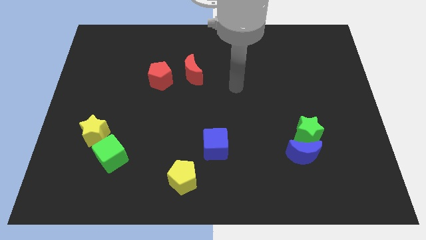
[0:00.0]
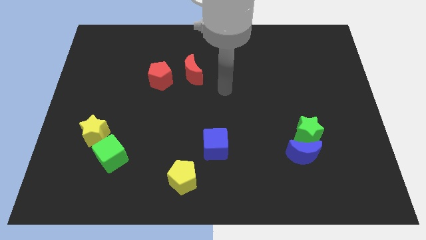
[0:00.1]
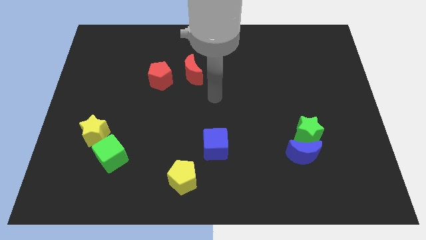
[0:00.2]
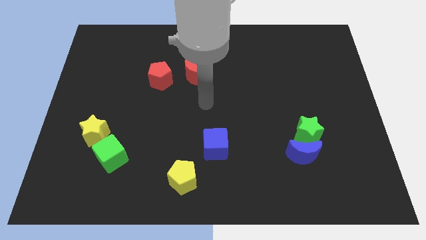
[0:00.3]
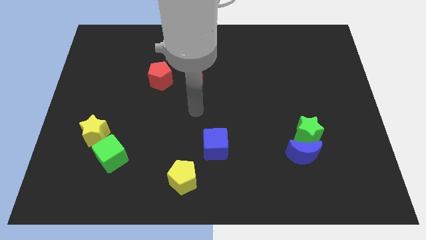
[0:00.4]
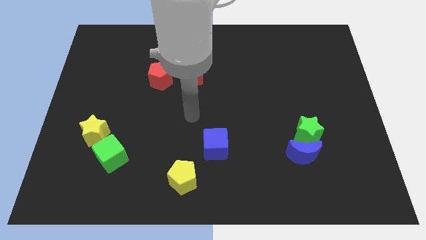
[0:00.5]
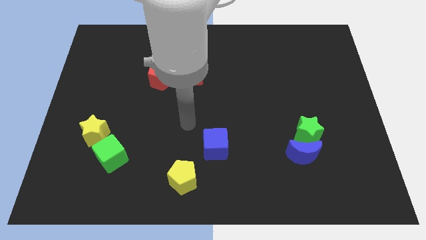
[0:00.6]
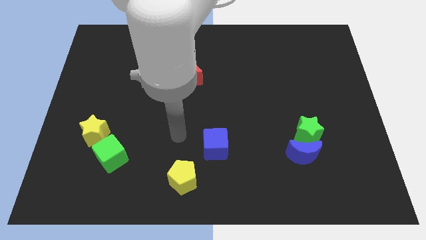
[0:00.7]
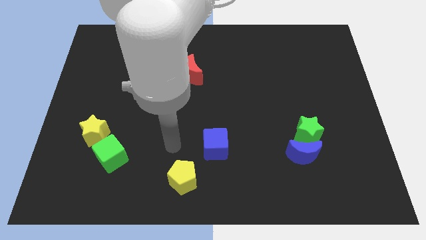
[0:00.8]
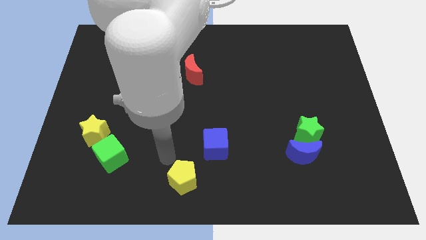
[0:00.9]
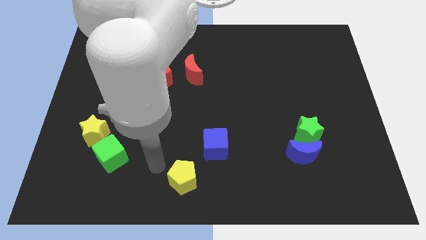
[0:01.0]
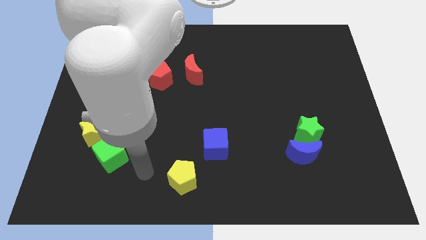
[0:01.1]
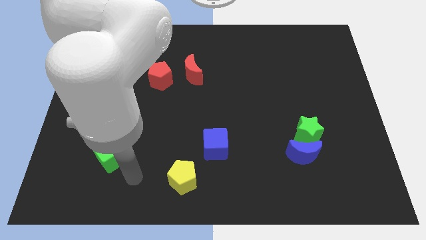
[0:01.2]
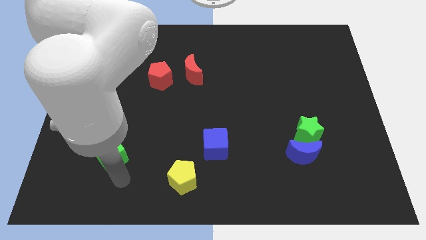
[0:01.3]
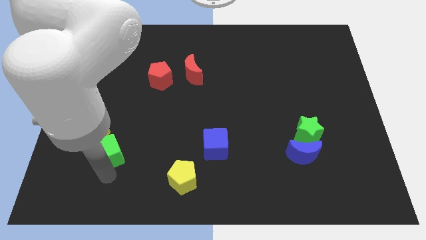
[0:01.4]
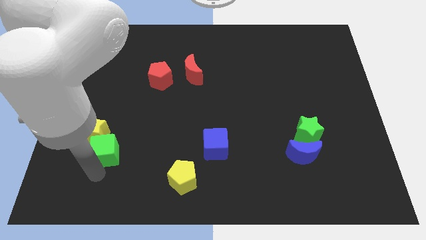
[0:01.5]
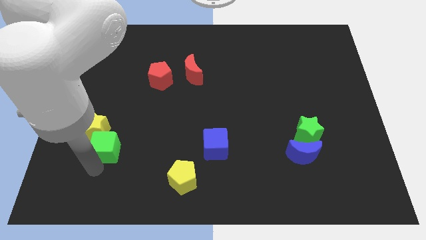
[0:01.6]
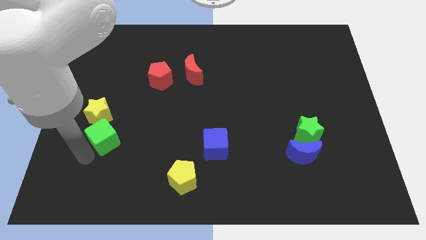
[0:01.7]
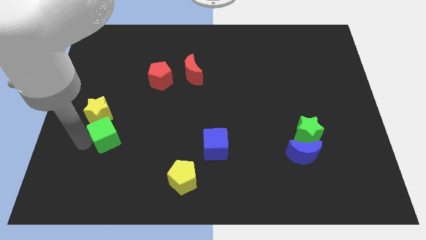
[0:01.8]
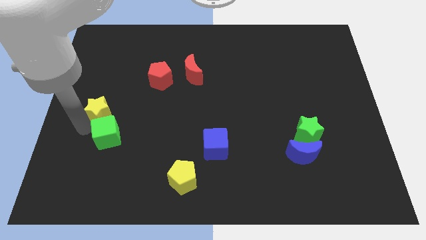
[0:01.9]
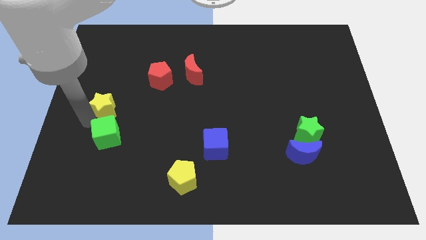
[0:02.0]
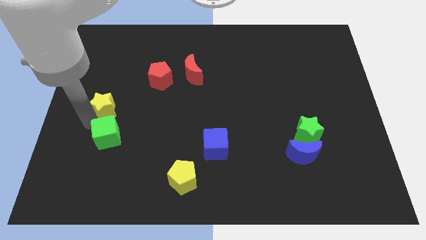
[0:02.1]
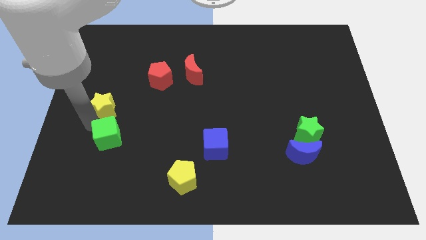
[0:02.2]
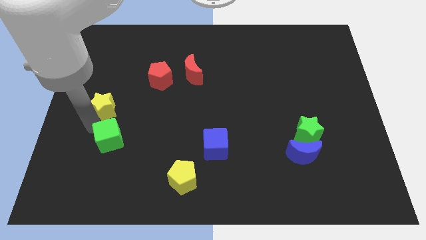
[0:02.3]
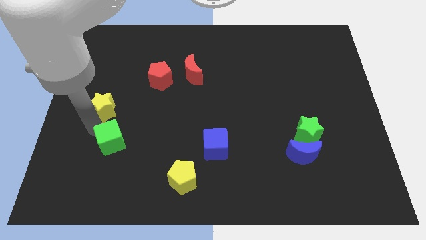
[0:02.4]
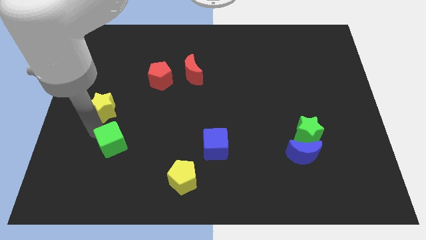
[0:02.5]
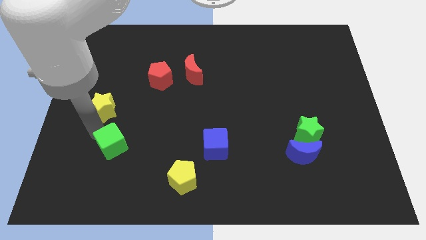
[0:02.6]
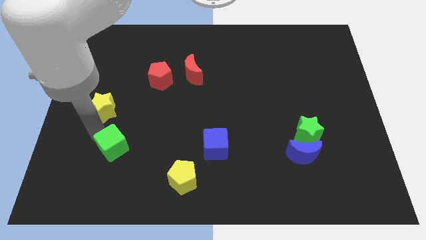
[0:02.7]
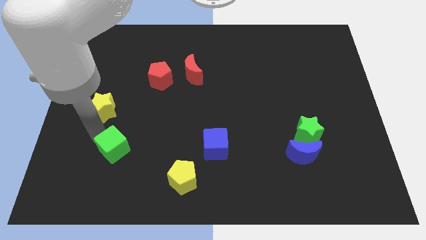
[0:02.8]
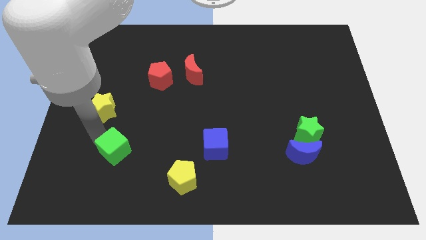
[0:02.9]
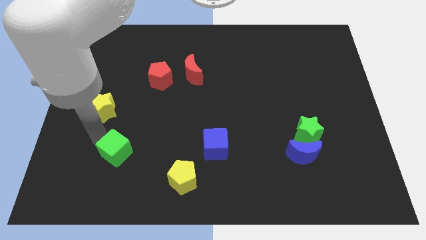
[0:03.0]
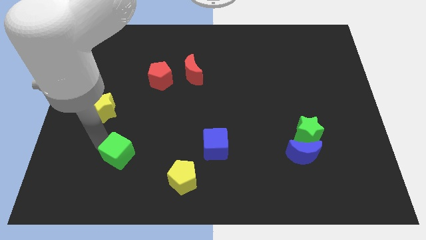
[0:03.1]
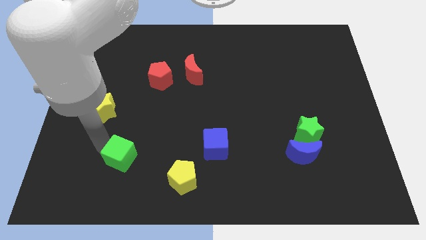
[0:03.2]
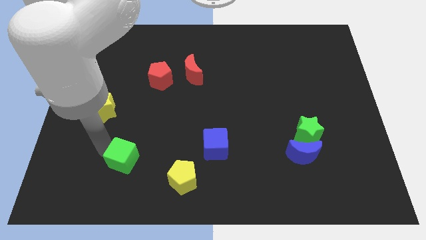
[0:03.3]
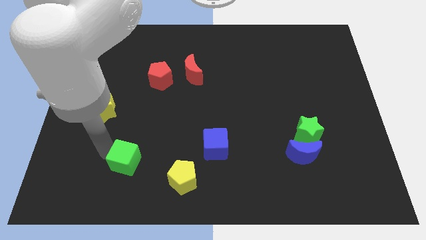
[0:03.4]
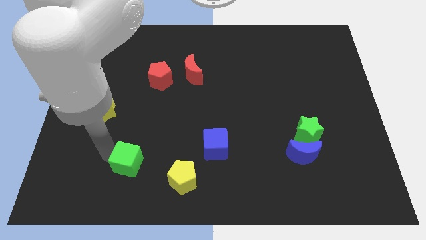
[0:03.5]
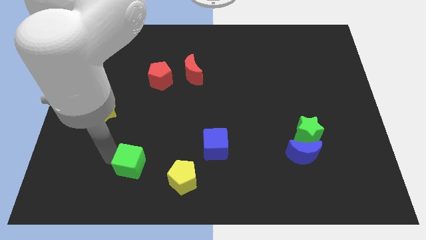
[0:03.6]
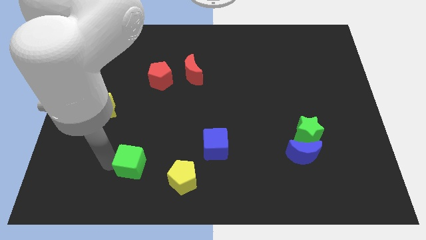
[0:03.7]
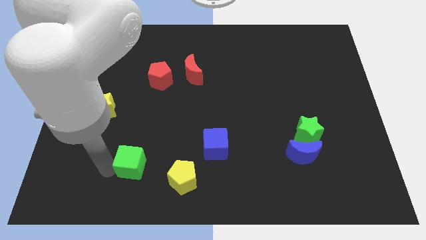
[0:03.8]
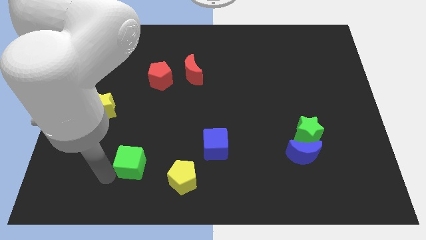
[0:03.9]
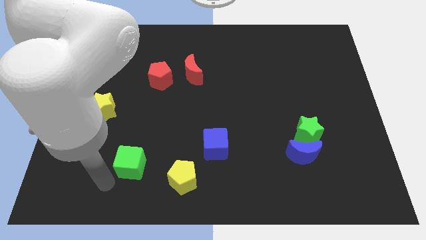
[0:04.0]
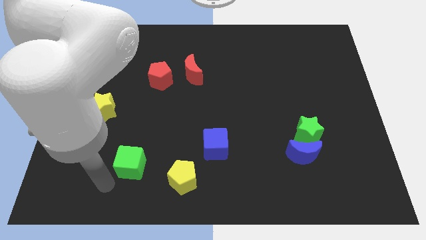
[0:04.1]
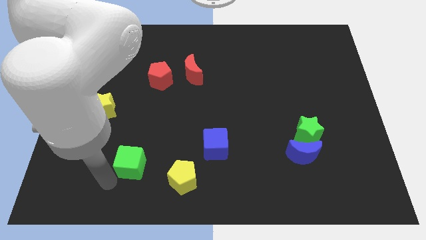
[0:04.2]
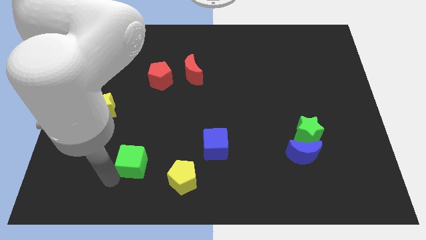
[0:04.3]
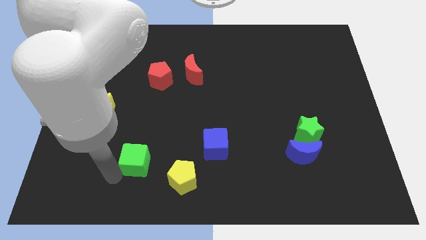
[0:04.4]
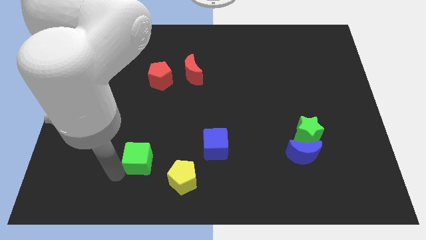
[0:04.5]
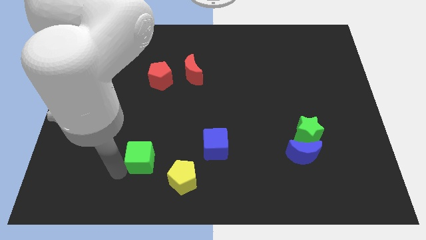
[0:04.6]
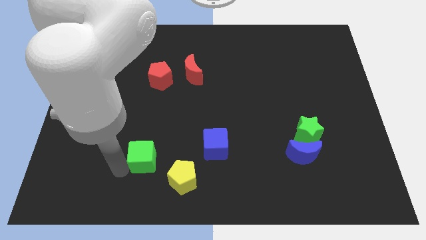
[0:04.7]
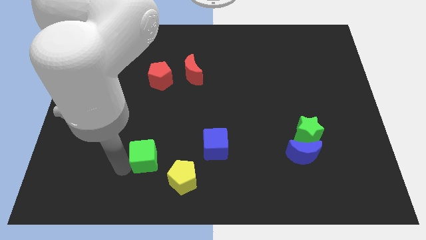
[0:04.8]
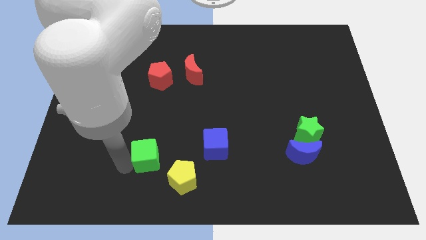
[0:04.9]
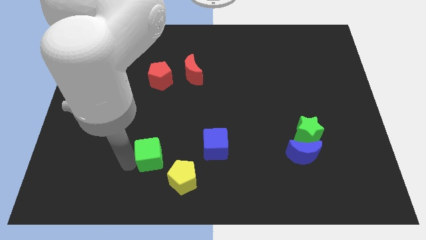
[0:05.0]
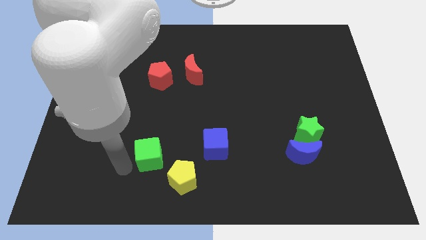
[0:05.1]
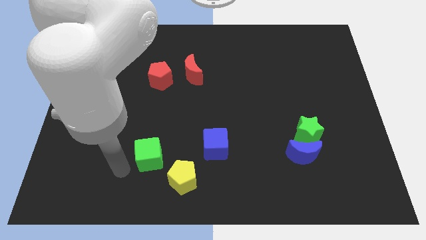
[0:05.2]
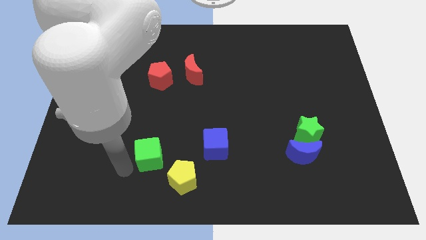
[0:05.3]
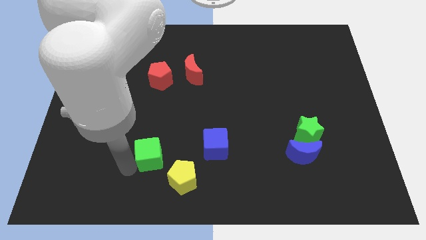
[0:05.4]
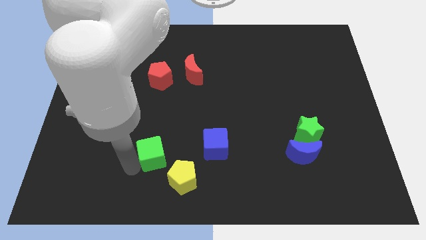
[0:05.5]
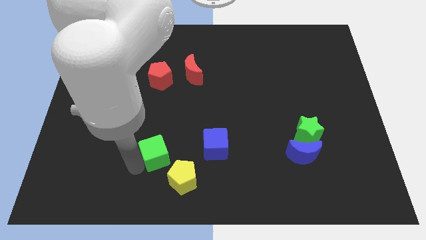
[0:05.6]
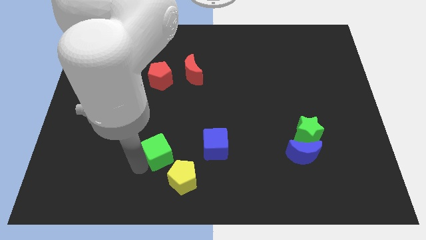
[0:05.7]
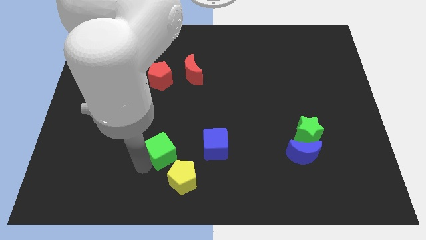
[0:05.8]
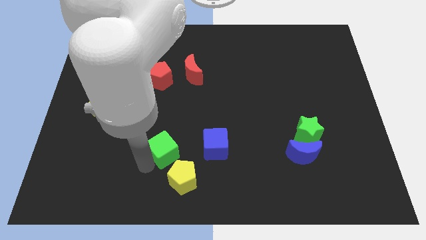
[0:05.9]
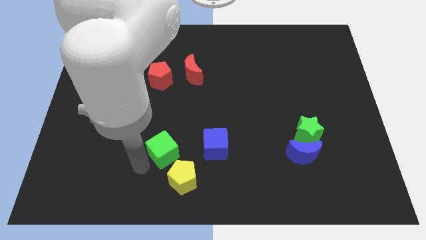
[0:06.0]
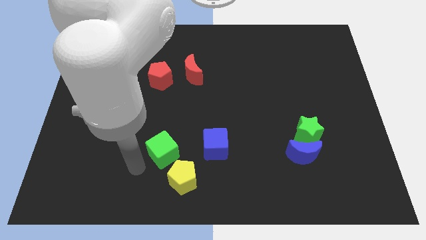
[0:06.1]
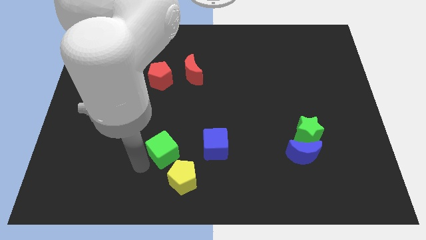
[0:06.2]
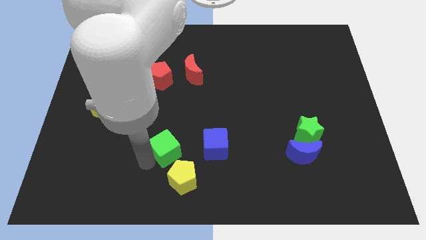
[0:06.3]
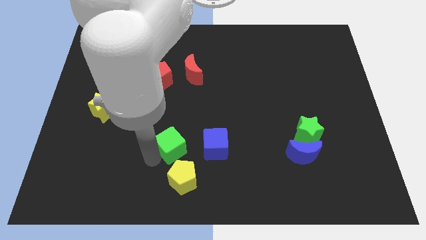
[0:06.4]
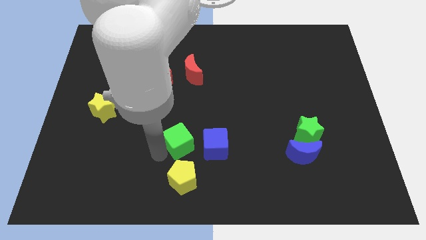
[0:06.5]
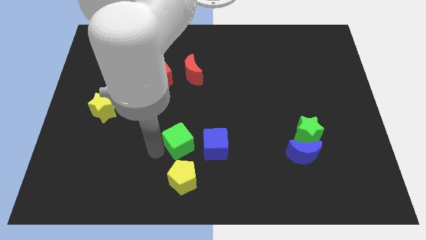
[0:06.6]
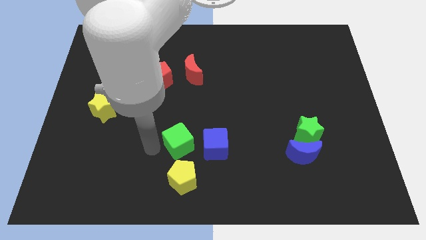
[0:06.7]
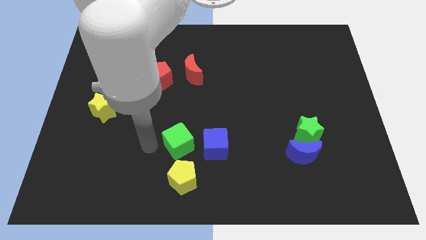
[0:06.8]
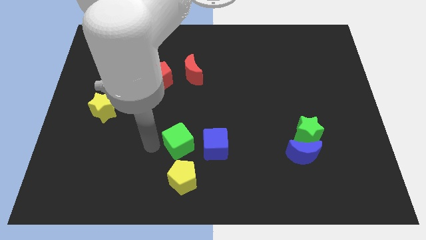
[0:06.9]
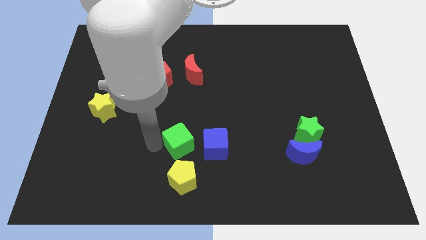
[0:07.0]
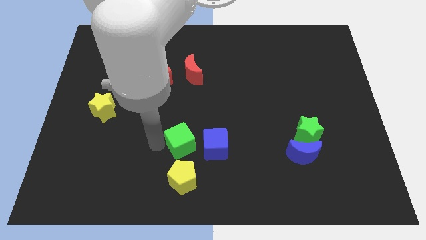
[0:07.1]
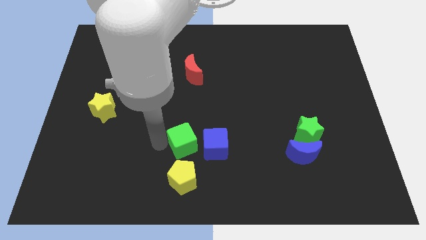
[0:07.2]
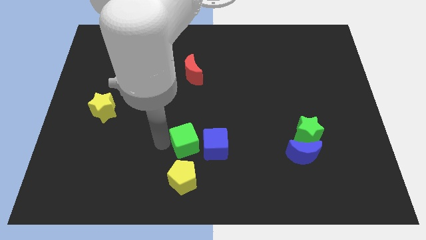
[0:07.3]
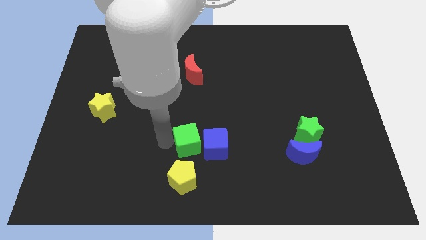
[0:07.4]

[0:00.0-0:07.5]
move the green cube next to the blue cube
